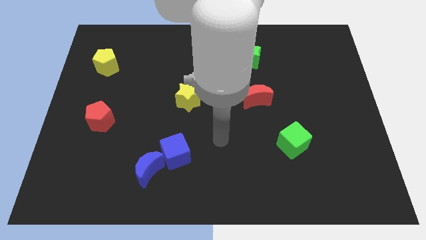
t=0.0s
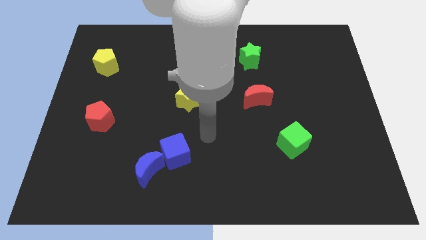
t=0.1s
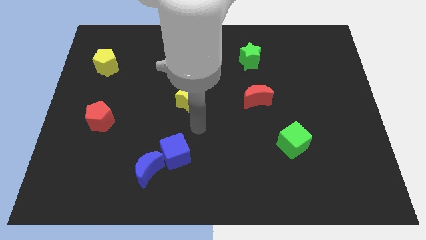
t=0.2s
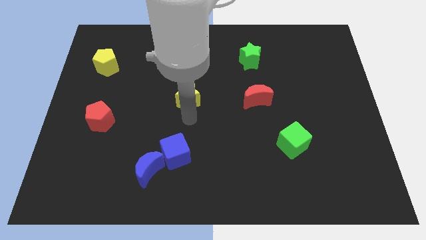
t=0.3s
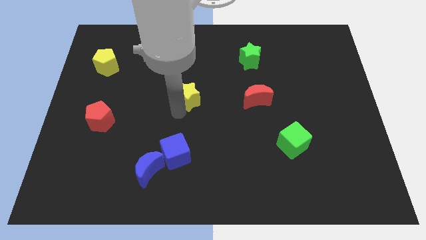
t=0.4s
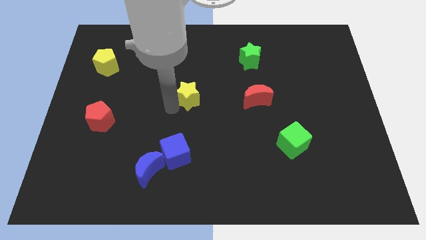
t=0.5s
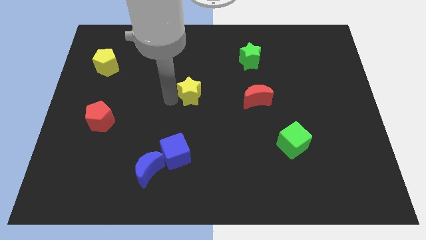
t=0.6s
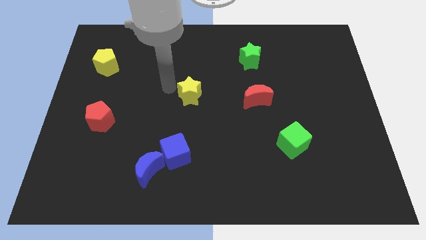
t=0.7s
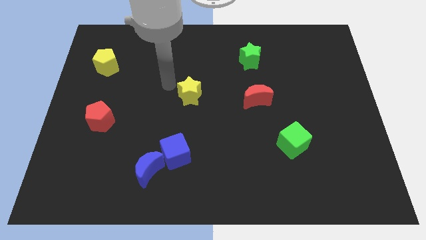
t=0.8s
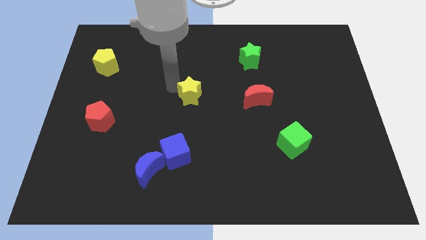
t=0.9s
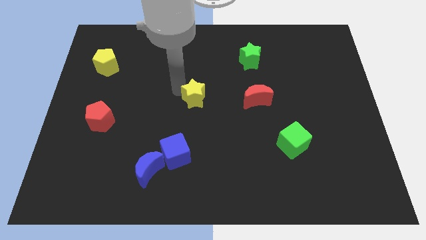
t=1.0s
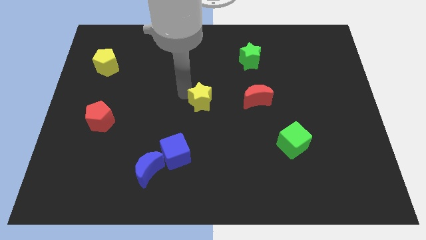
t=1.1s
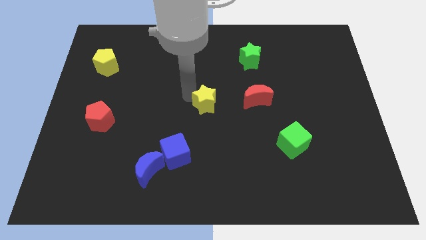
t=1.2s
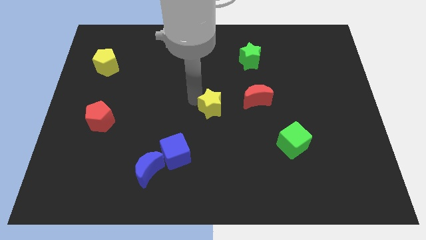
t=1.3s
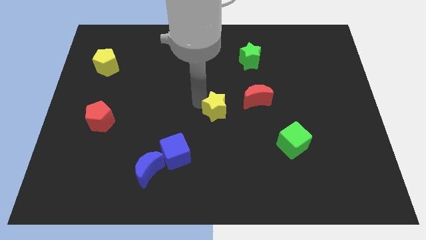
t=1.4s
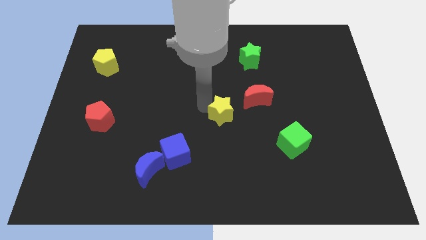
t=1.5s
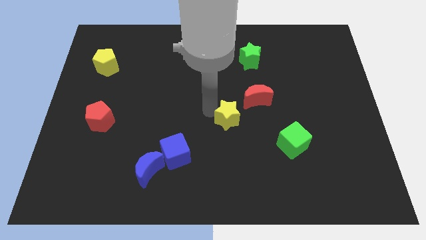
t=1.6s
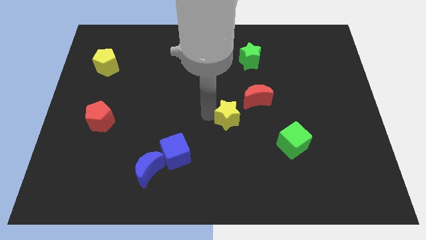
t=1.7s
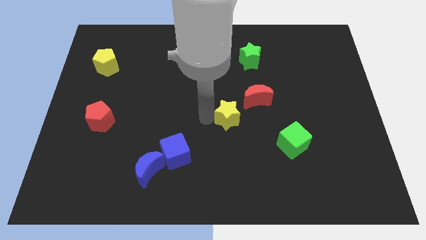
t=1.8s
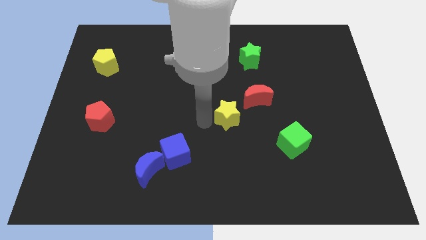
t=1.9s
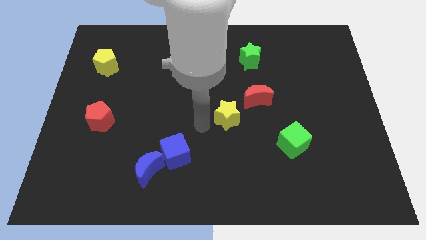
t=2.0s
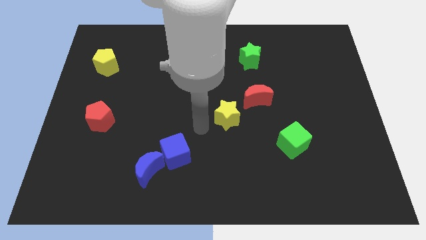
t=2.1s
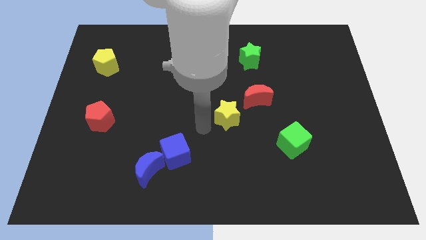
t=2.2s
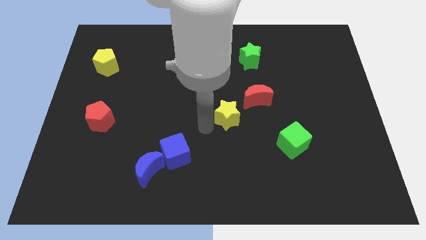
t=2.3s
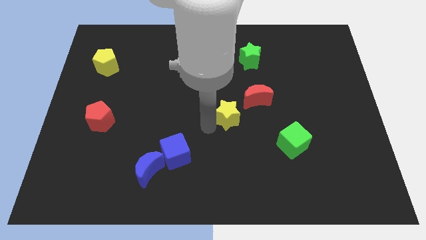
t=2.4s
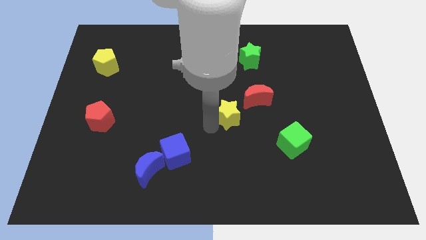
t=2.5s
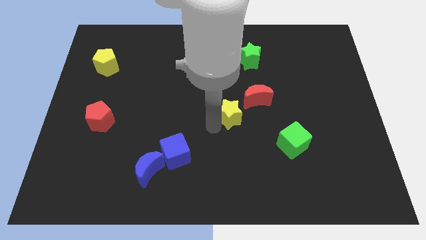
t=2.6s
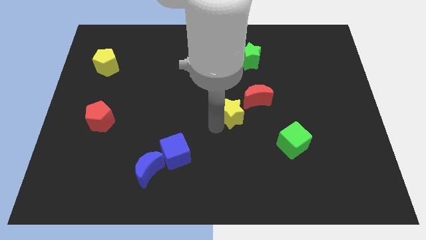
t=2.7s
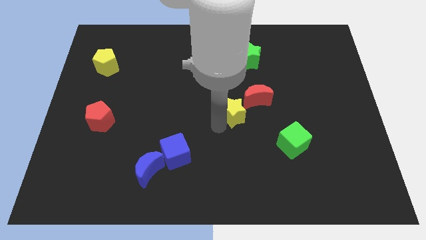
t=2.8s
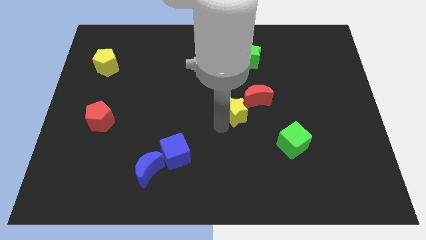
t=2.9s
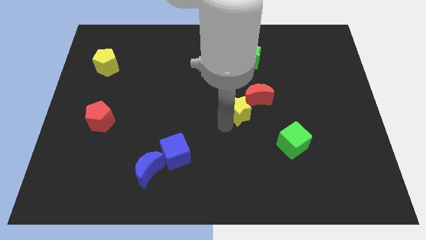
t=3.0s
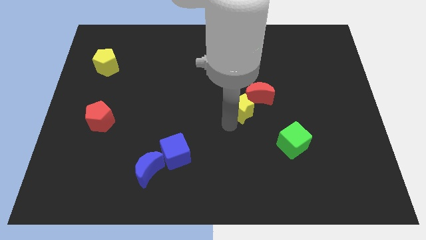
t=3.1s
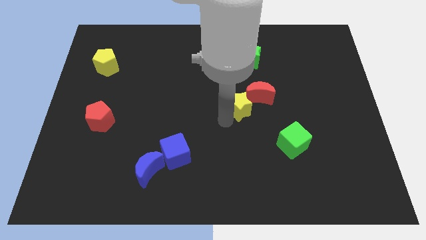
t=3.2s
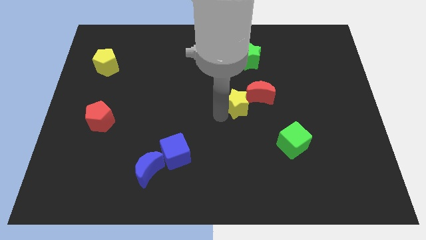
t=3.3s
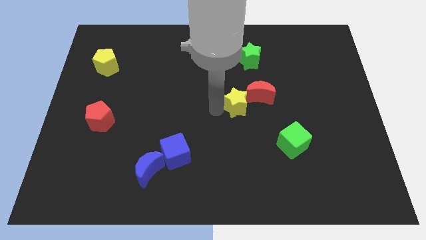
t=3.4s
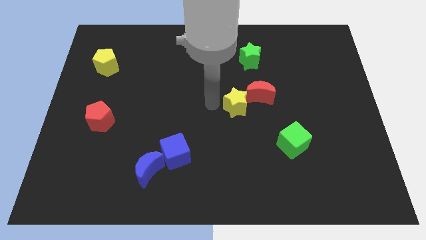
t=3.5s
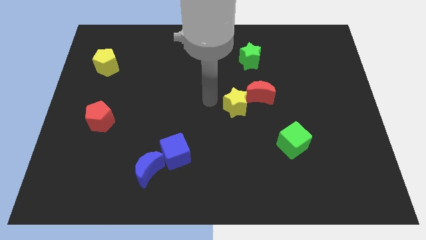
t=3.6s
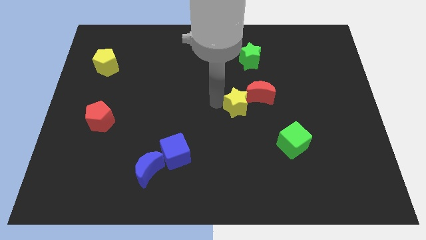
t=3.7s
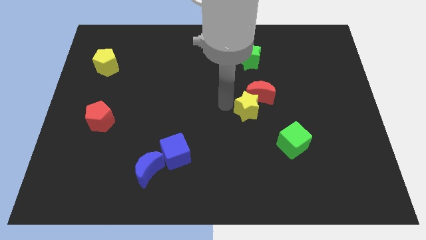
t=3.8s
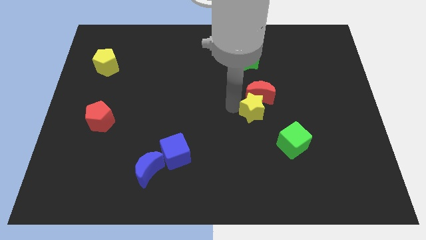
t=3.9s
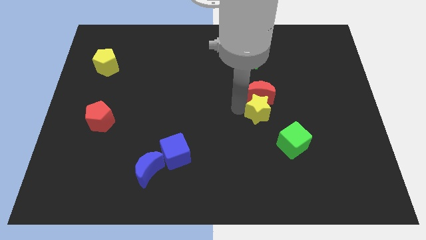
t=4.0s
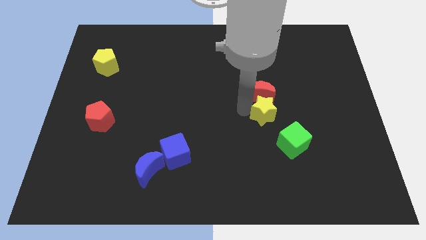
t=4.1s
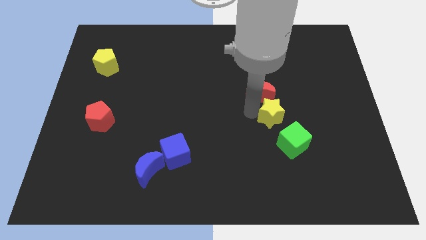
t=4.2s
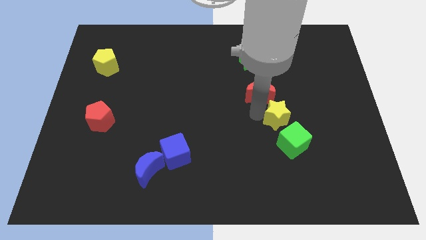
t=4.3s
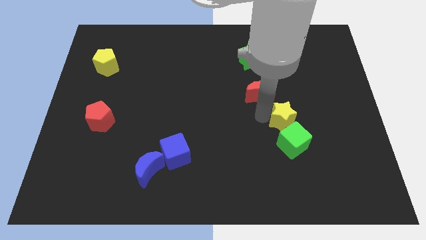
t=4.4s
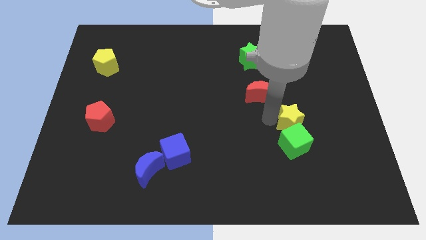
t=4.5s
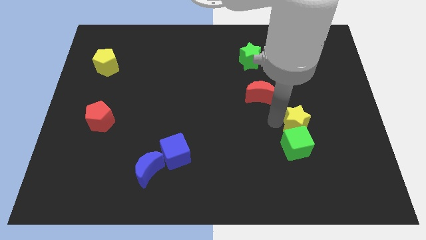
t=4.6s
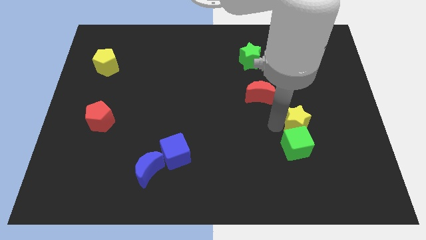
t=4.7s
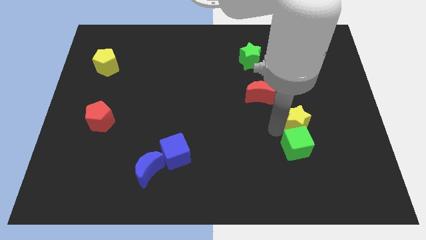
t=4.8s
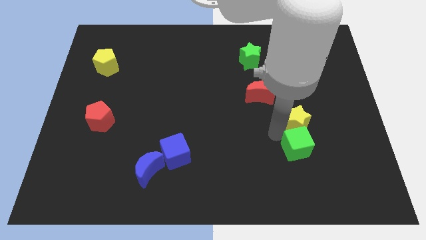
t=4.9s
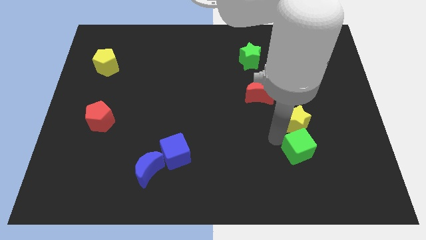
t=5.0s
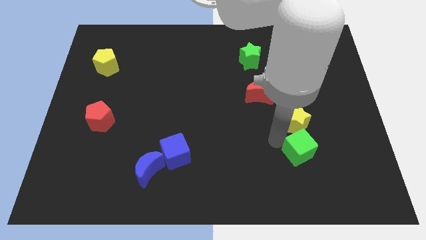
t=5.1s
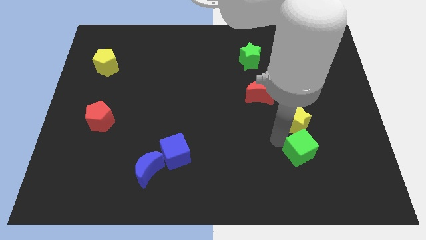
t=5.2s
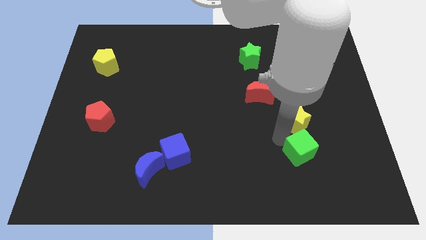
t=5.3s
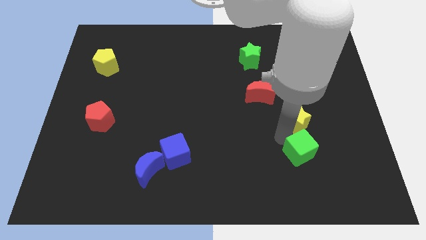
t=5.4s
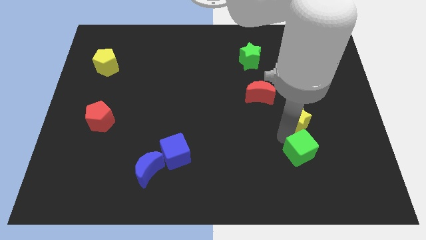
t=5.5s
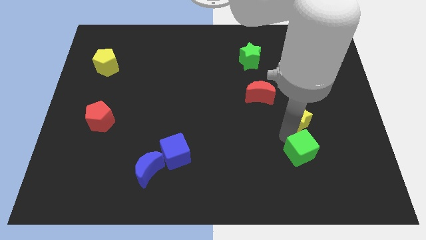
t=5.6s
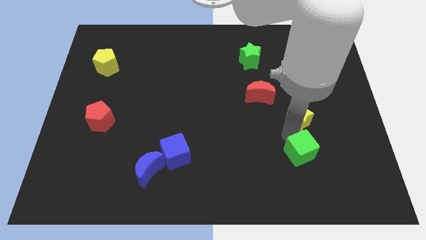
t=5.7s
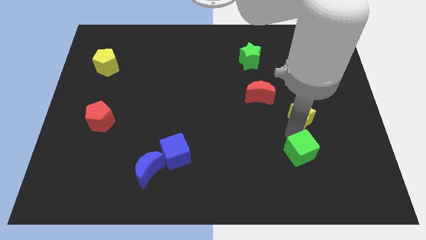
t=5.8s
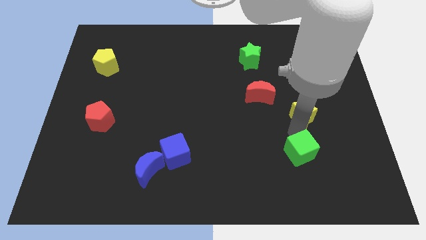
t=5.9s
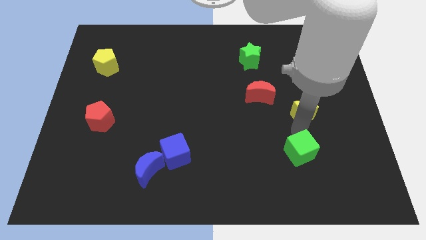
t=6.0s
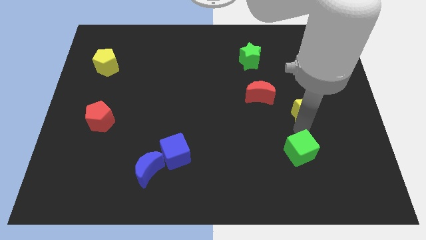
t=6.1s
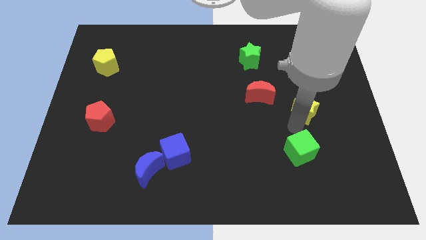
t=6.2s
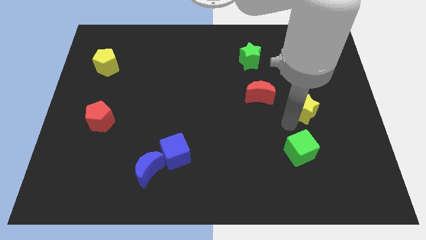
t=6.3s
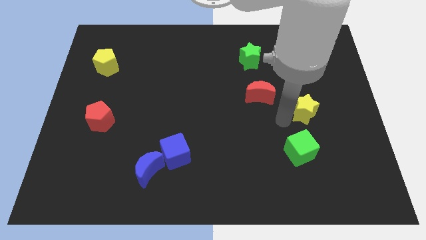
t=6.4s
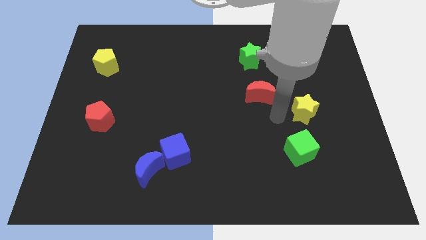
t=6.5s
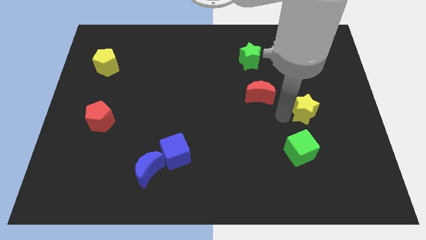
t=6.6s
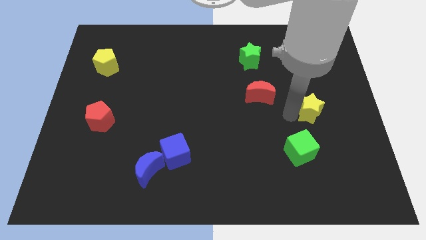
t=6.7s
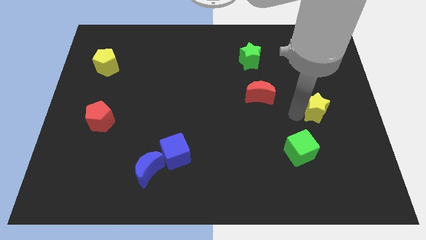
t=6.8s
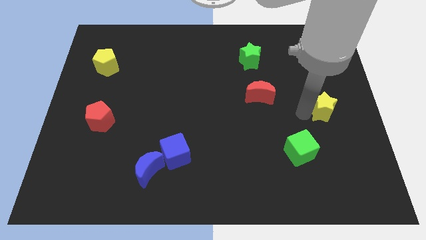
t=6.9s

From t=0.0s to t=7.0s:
move the yellow star to the center right
